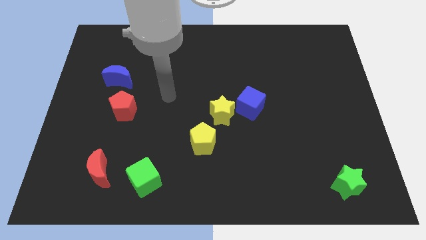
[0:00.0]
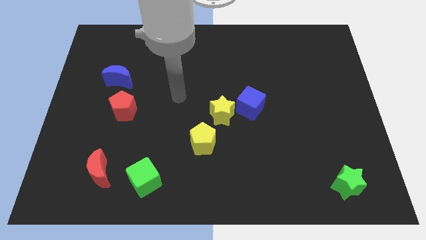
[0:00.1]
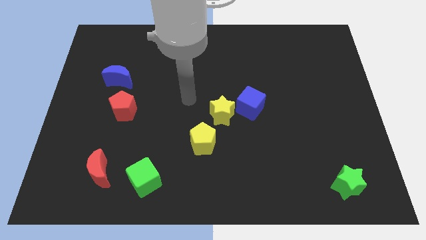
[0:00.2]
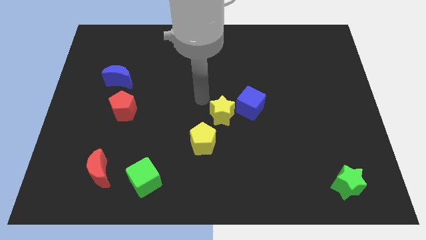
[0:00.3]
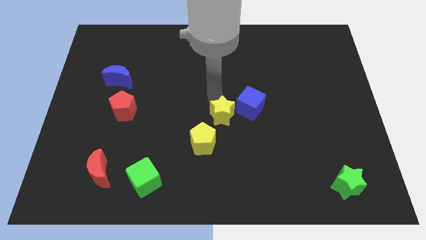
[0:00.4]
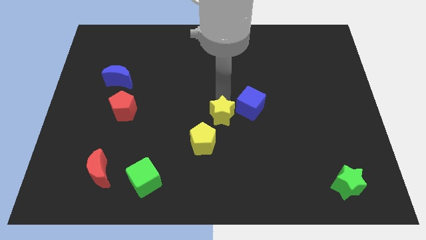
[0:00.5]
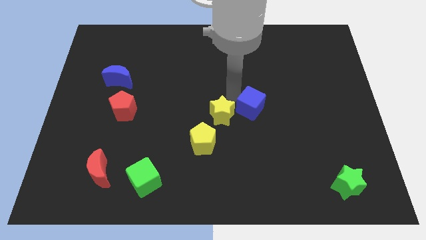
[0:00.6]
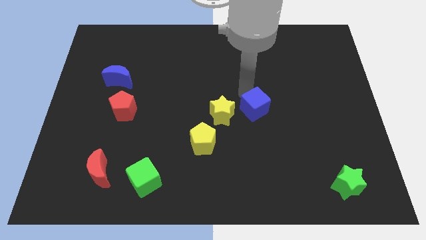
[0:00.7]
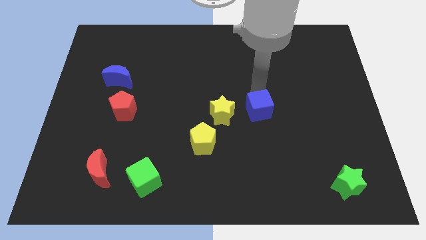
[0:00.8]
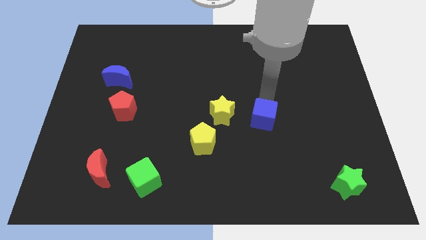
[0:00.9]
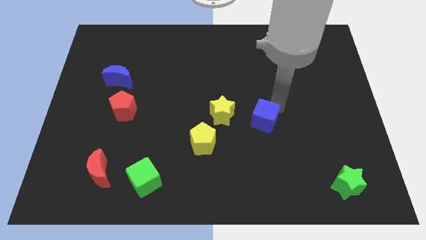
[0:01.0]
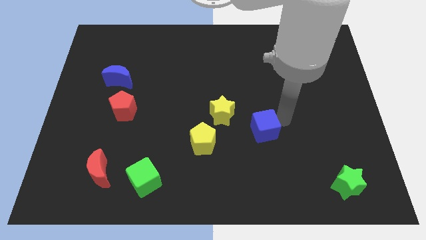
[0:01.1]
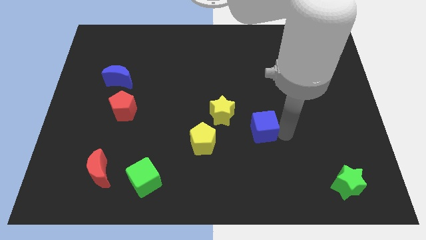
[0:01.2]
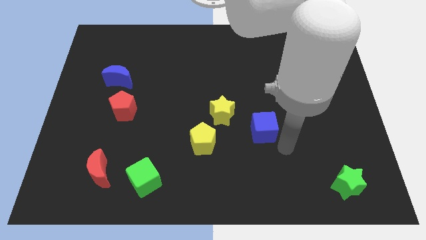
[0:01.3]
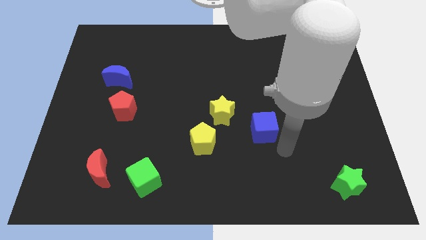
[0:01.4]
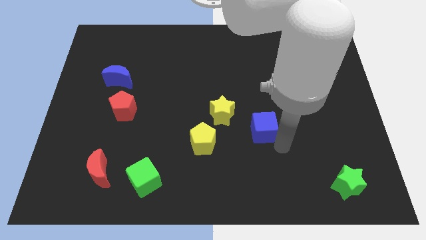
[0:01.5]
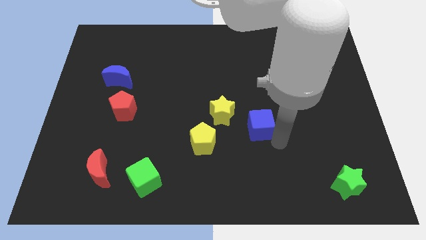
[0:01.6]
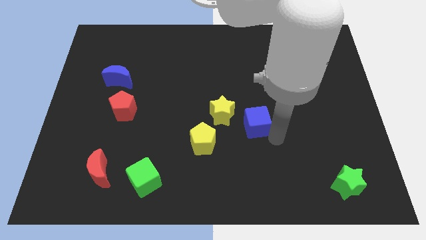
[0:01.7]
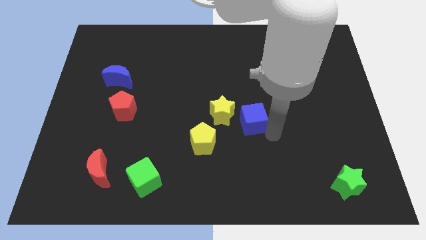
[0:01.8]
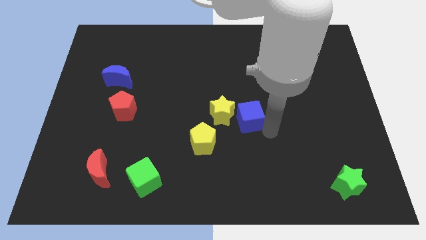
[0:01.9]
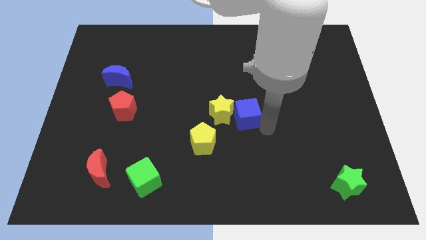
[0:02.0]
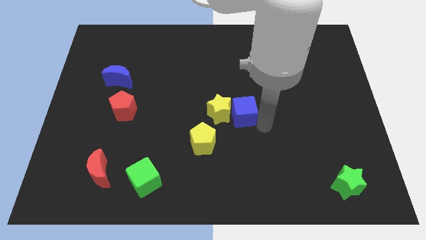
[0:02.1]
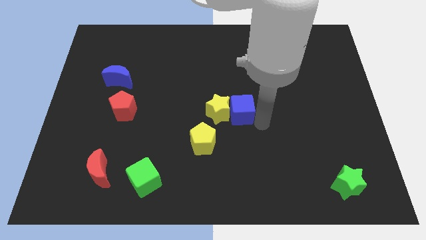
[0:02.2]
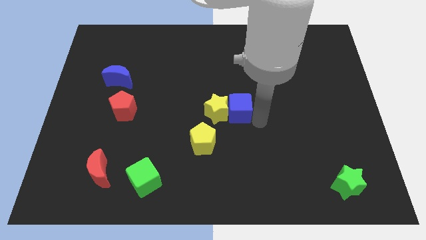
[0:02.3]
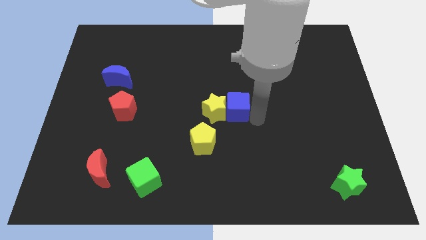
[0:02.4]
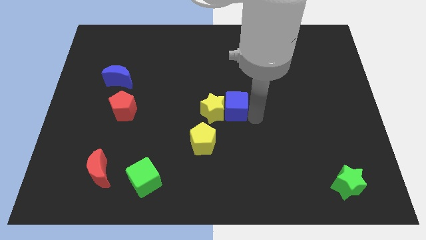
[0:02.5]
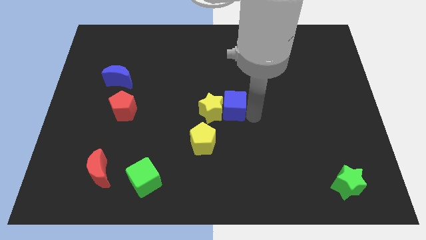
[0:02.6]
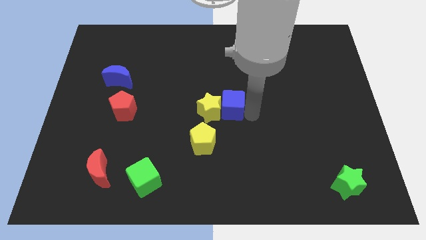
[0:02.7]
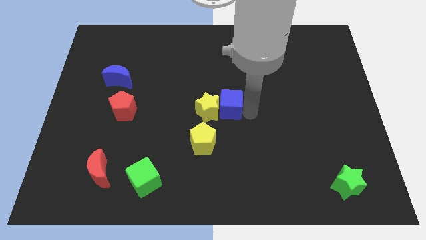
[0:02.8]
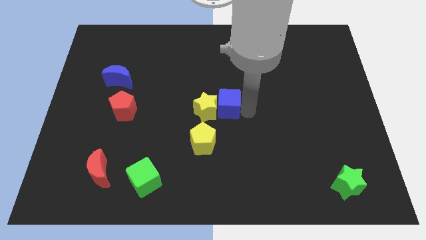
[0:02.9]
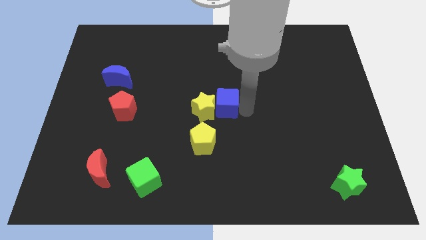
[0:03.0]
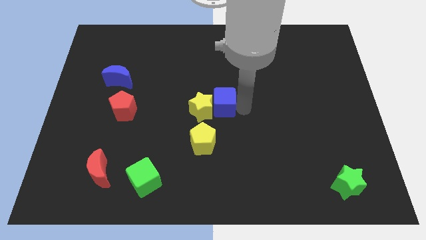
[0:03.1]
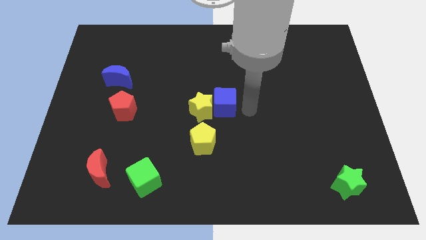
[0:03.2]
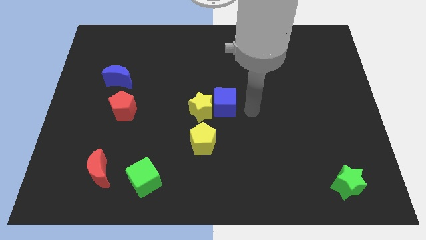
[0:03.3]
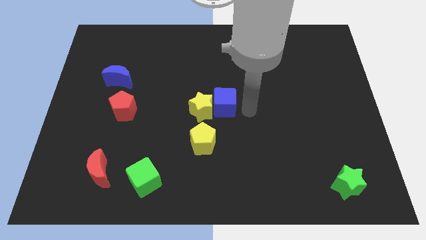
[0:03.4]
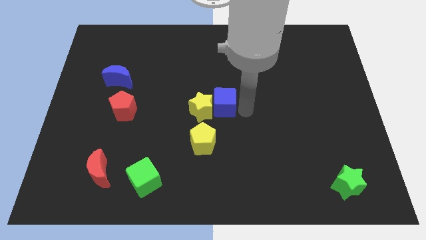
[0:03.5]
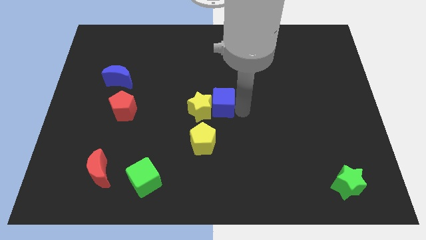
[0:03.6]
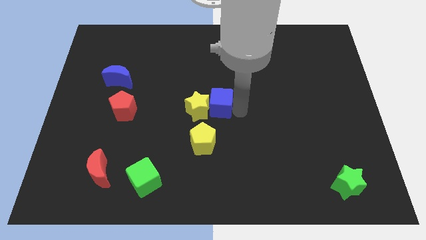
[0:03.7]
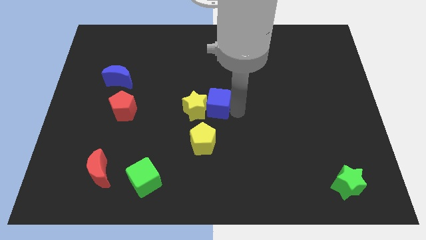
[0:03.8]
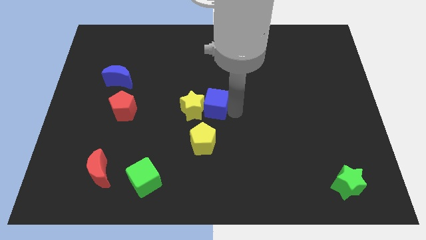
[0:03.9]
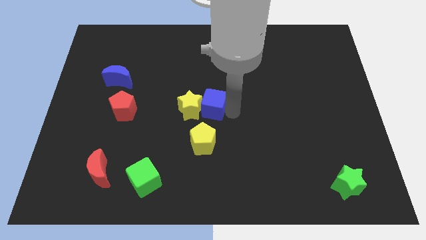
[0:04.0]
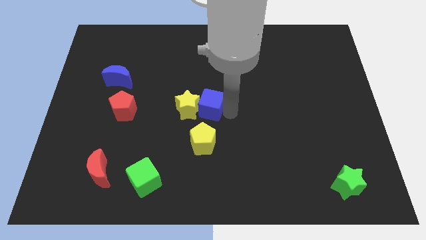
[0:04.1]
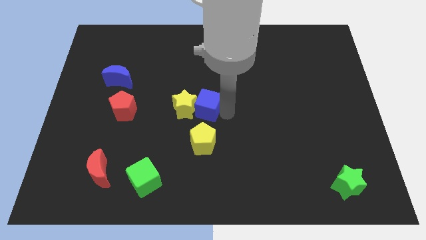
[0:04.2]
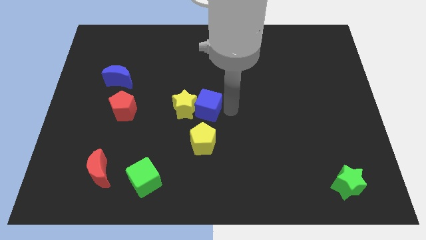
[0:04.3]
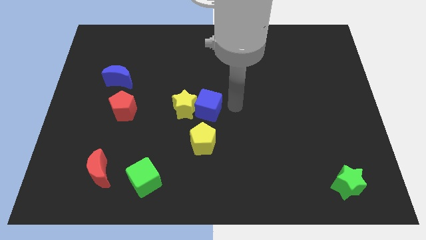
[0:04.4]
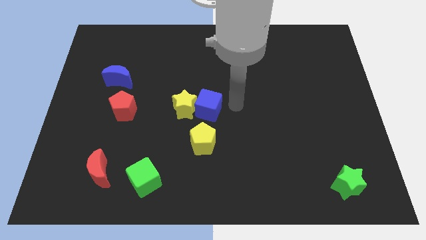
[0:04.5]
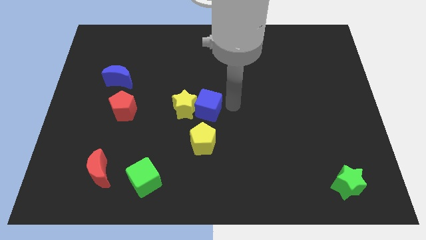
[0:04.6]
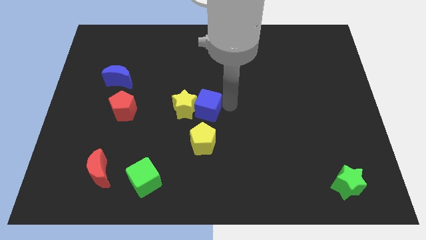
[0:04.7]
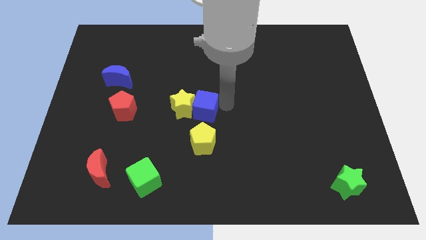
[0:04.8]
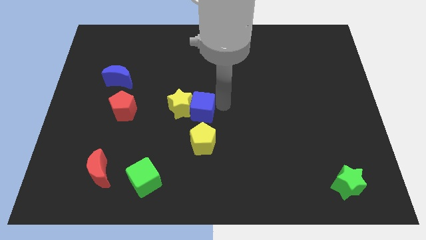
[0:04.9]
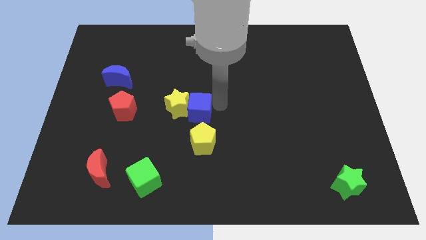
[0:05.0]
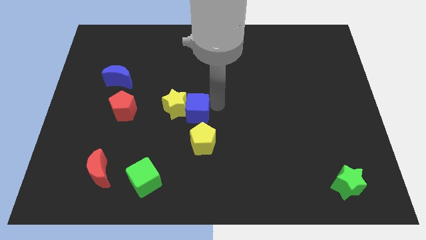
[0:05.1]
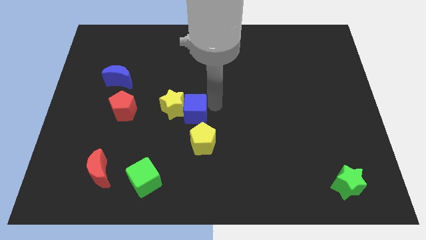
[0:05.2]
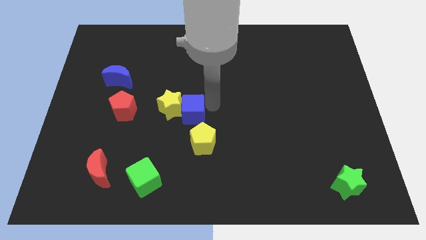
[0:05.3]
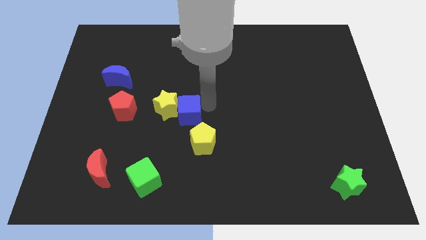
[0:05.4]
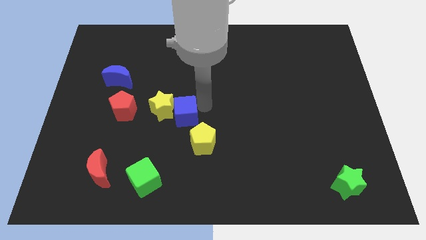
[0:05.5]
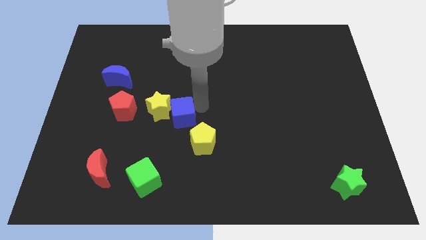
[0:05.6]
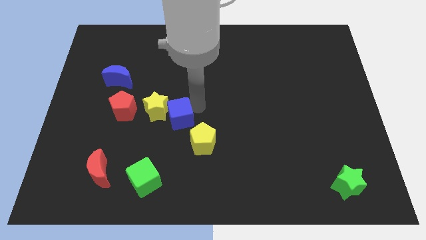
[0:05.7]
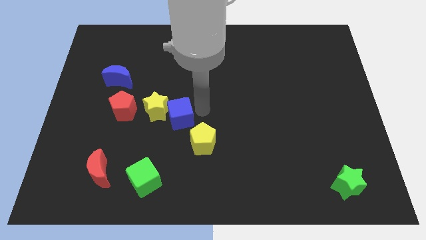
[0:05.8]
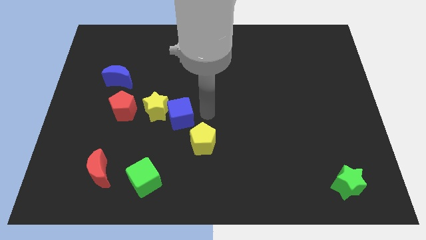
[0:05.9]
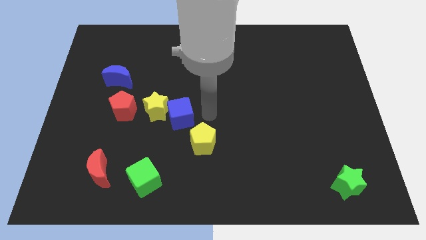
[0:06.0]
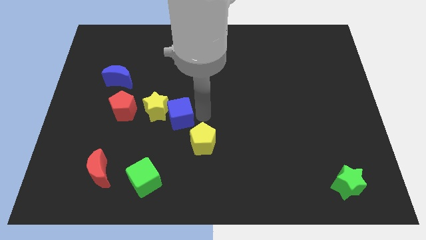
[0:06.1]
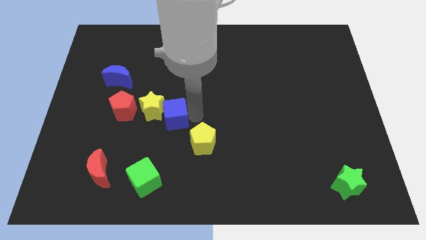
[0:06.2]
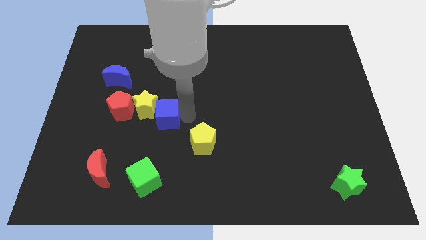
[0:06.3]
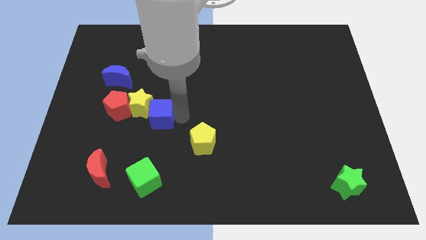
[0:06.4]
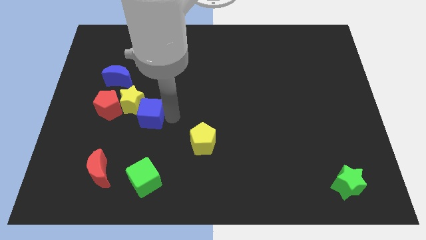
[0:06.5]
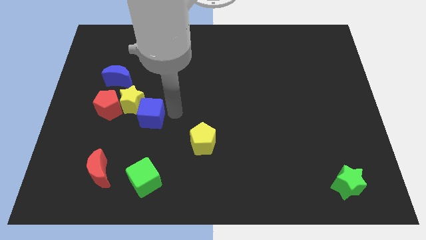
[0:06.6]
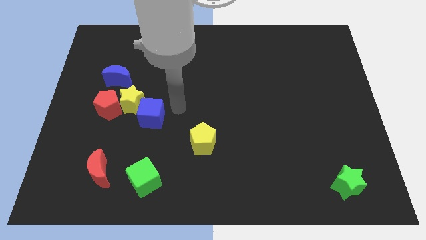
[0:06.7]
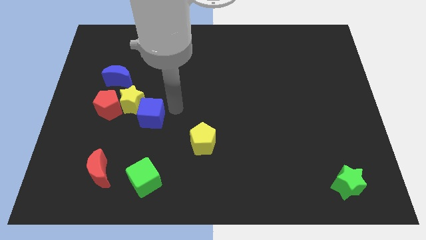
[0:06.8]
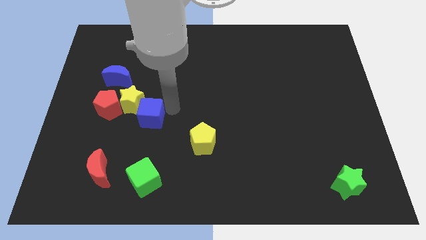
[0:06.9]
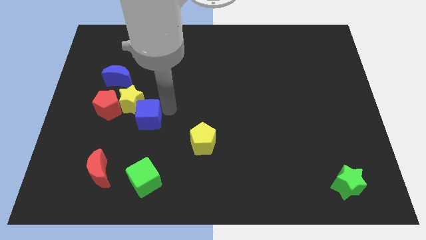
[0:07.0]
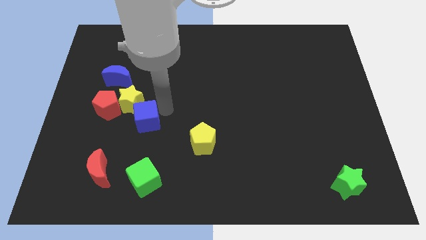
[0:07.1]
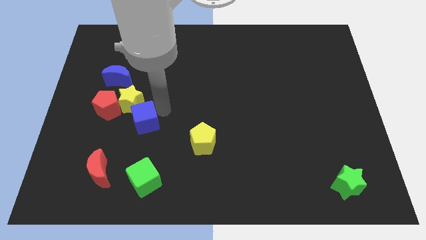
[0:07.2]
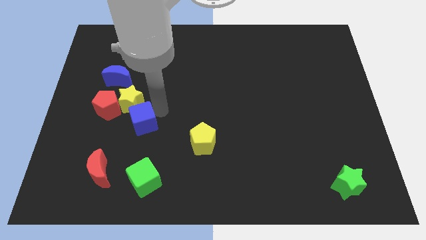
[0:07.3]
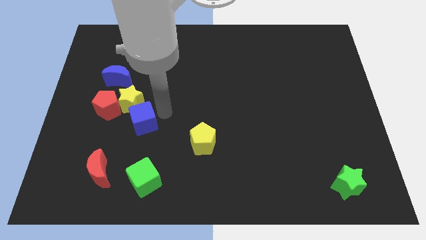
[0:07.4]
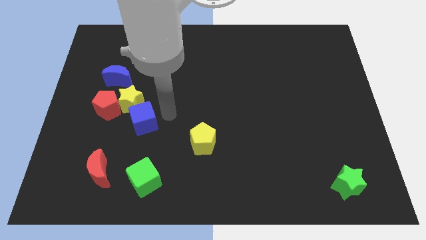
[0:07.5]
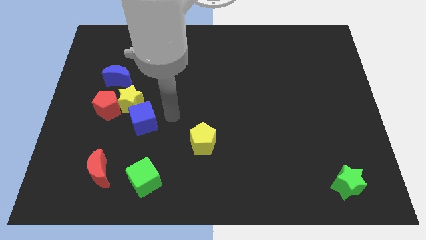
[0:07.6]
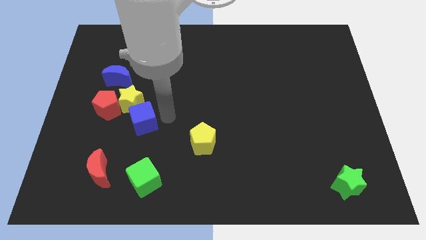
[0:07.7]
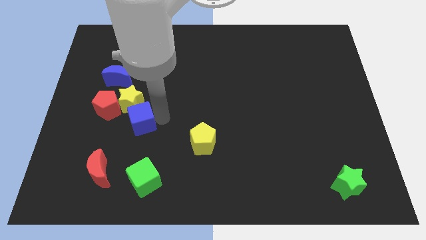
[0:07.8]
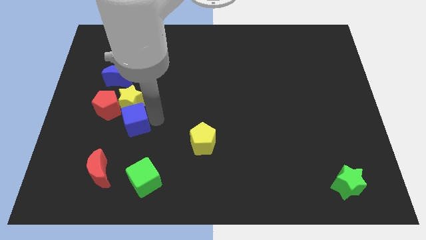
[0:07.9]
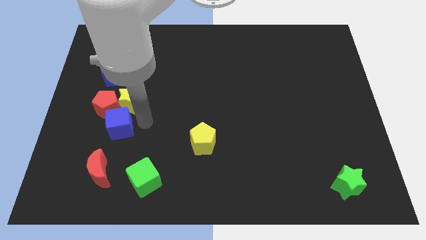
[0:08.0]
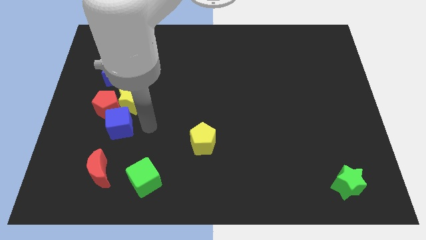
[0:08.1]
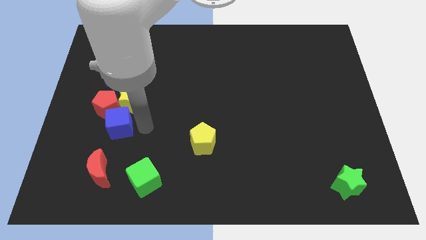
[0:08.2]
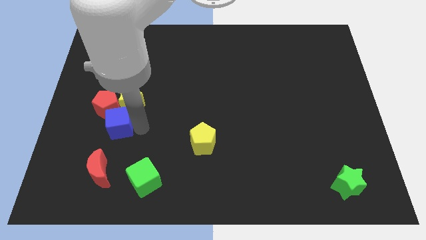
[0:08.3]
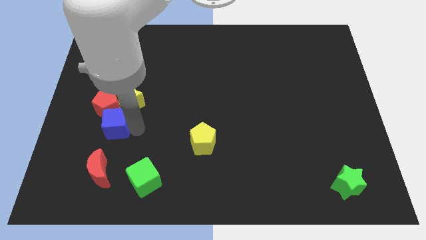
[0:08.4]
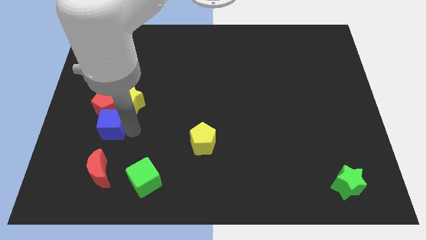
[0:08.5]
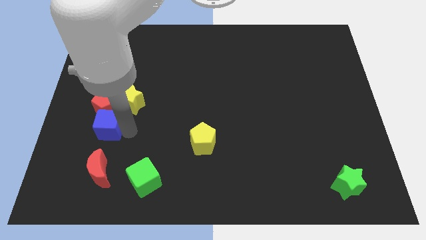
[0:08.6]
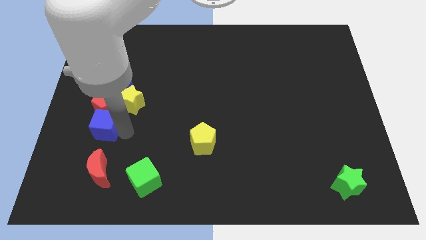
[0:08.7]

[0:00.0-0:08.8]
slide the blue cube to the bottom left side of the red pentagon
